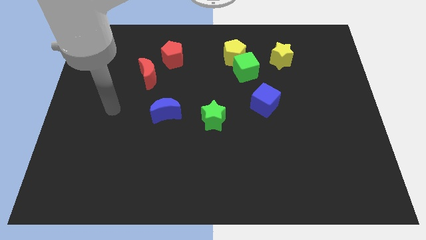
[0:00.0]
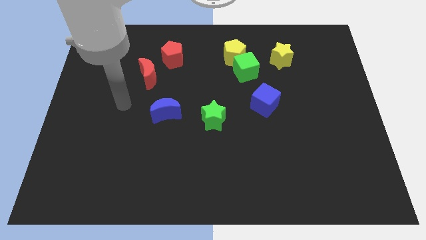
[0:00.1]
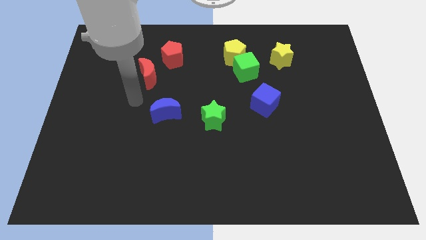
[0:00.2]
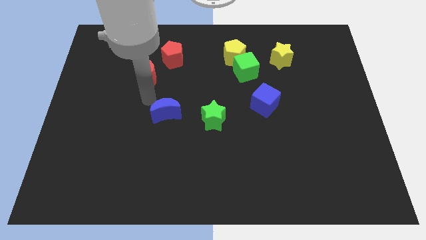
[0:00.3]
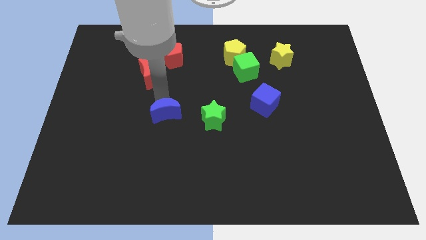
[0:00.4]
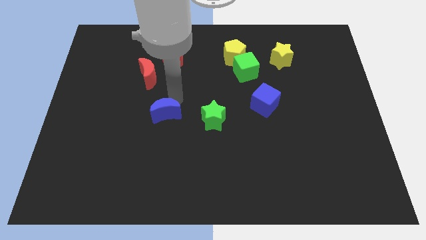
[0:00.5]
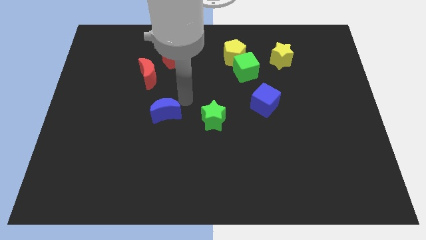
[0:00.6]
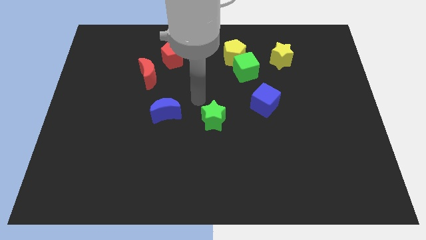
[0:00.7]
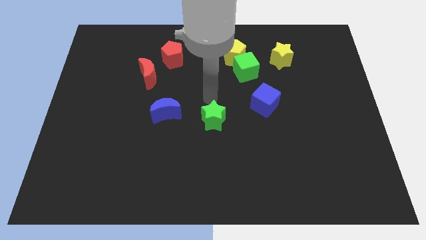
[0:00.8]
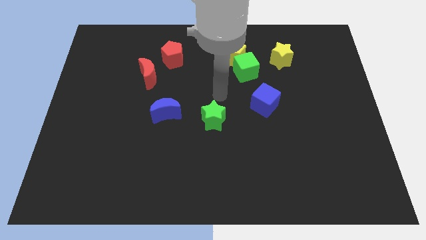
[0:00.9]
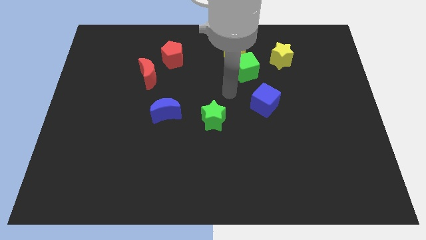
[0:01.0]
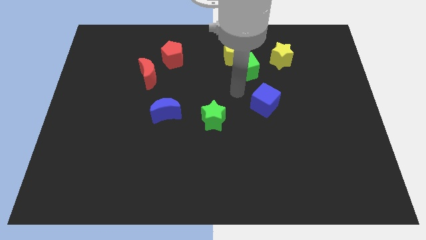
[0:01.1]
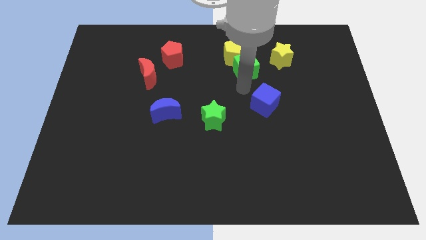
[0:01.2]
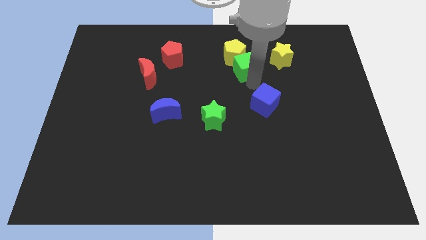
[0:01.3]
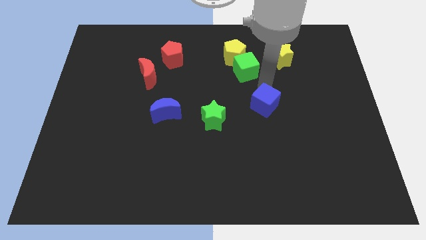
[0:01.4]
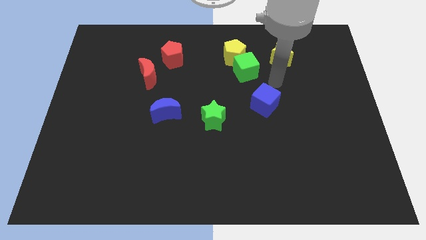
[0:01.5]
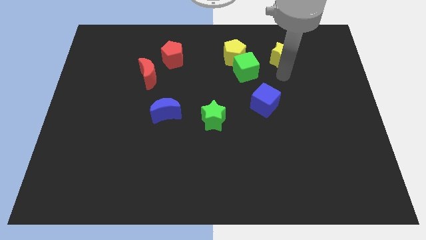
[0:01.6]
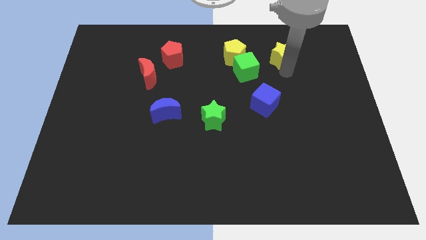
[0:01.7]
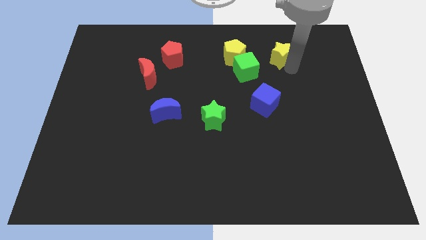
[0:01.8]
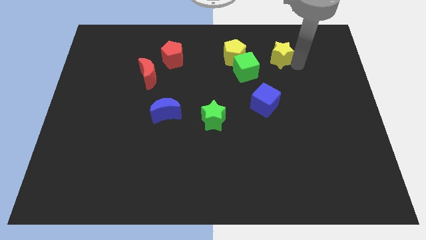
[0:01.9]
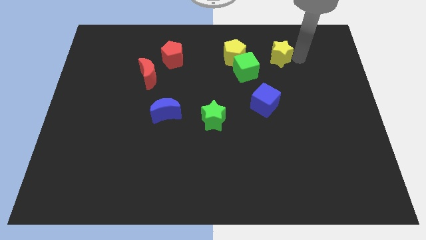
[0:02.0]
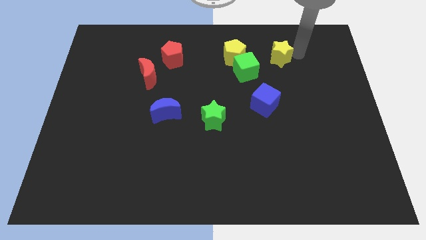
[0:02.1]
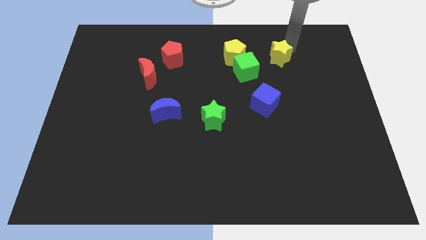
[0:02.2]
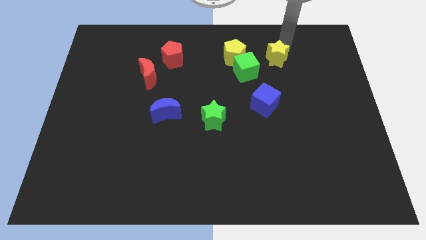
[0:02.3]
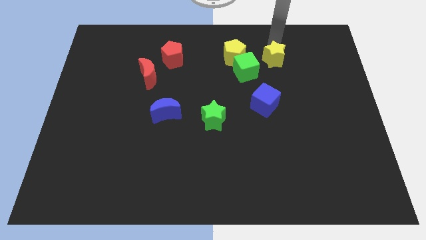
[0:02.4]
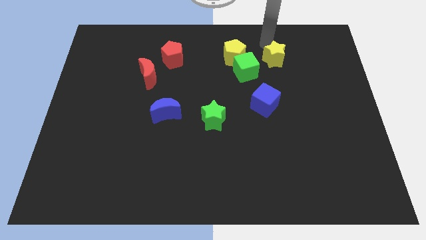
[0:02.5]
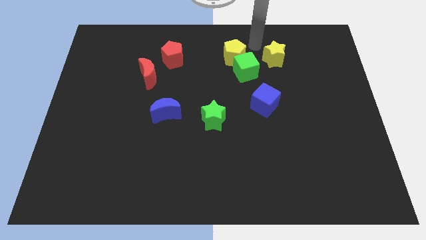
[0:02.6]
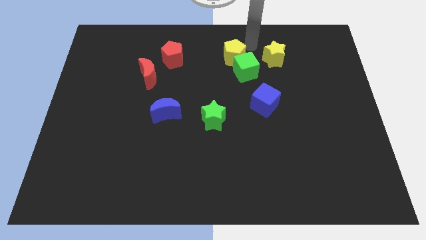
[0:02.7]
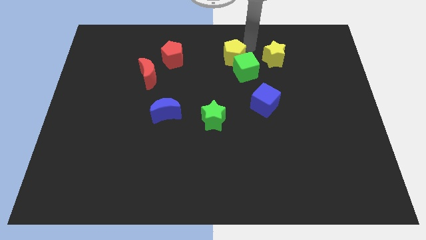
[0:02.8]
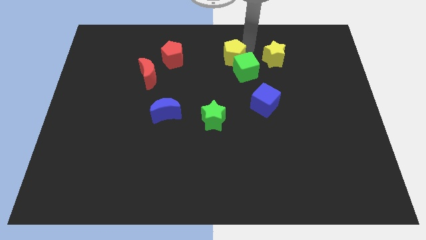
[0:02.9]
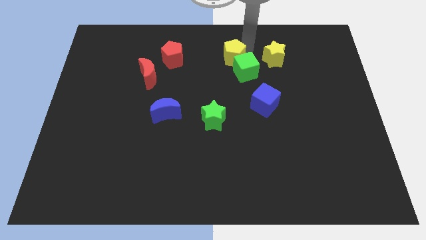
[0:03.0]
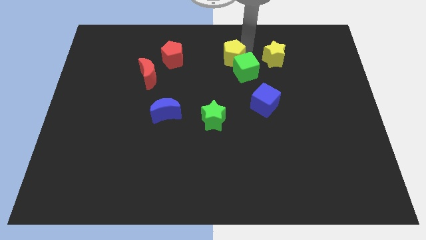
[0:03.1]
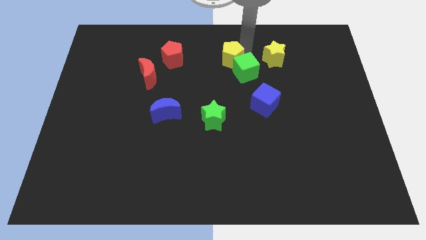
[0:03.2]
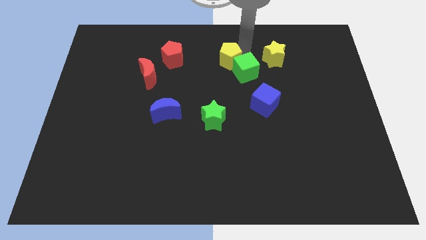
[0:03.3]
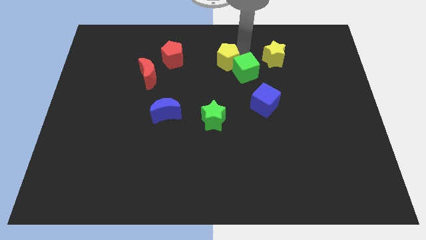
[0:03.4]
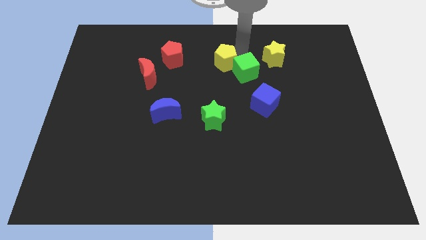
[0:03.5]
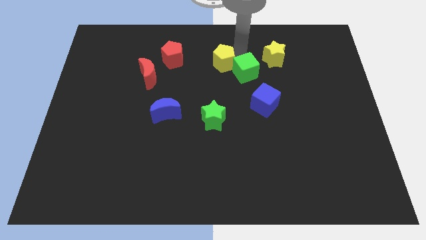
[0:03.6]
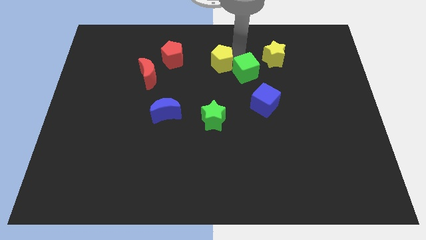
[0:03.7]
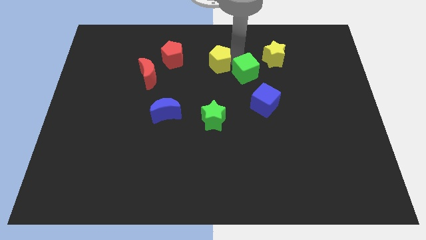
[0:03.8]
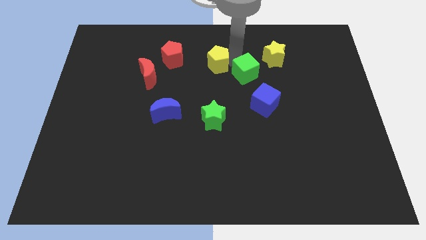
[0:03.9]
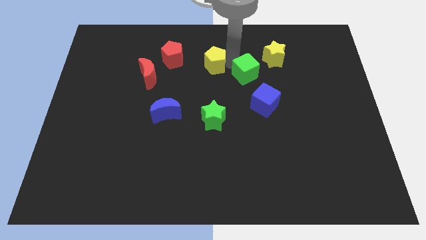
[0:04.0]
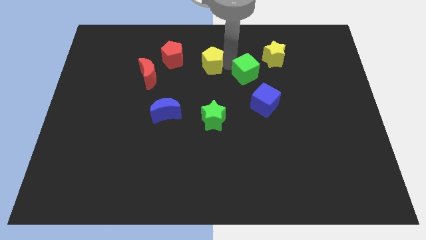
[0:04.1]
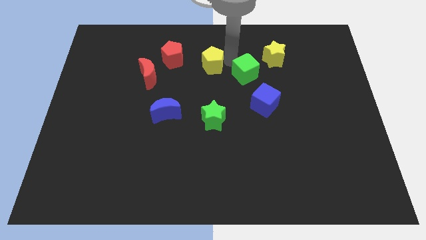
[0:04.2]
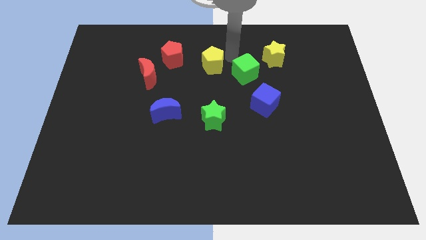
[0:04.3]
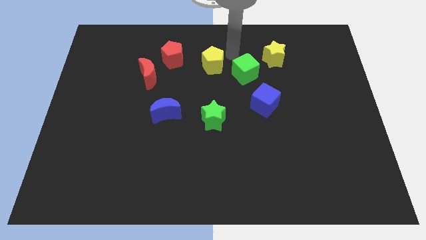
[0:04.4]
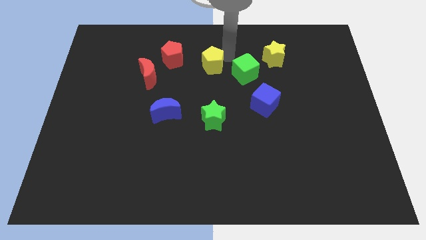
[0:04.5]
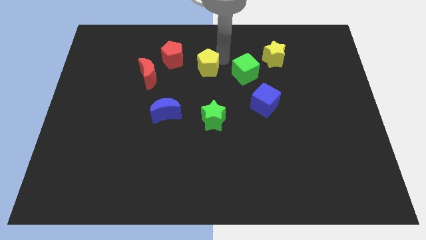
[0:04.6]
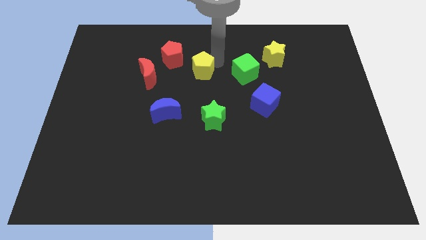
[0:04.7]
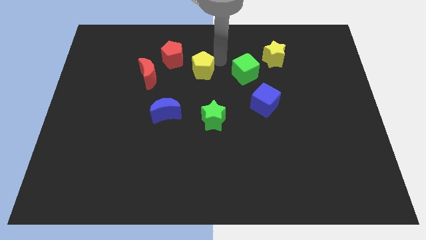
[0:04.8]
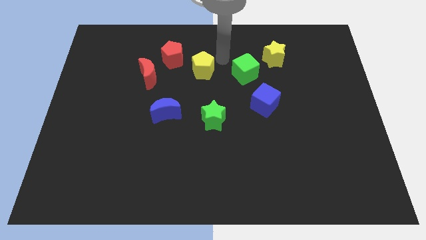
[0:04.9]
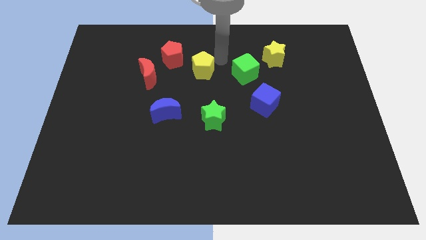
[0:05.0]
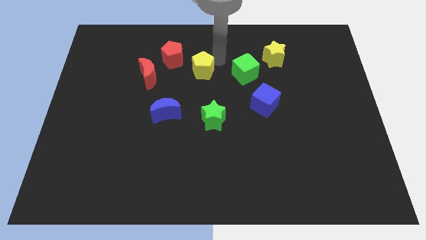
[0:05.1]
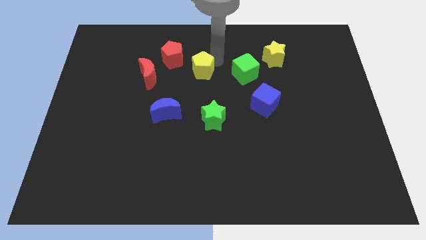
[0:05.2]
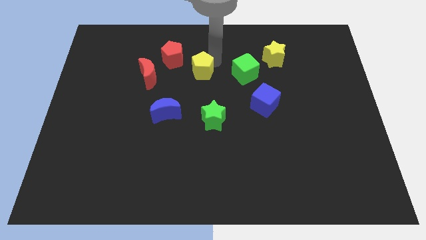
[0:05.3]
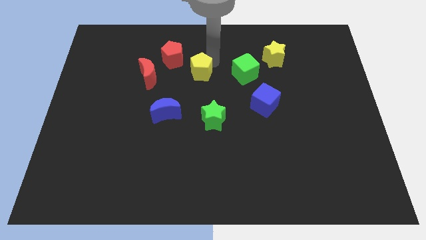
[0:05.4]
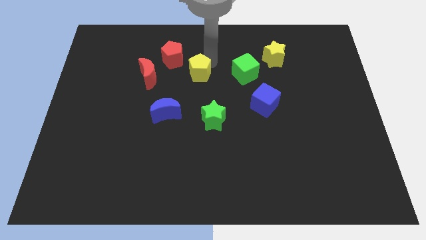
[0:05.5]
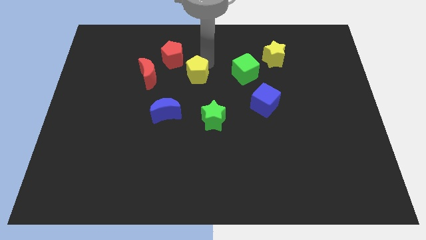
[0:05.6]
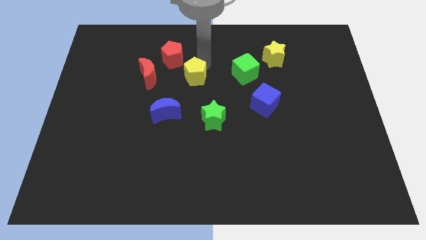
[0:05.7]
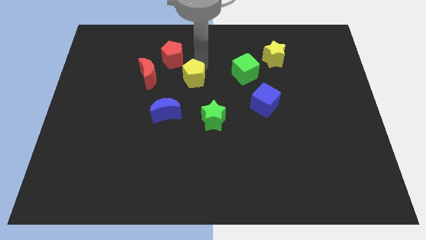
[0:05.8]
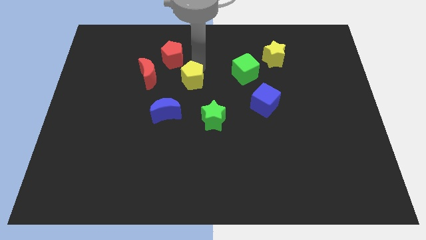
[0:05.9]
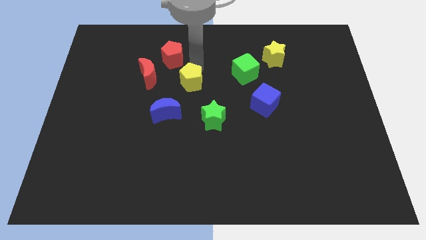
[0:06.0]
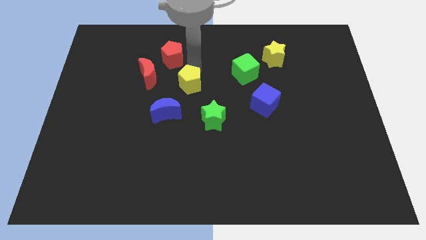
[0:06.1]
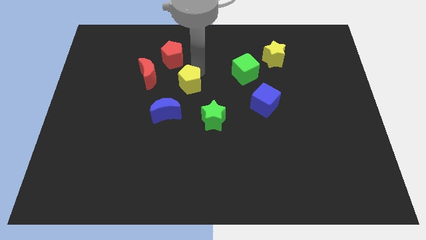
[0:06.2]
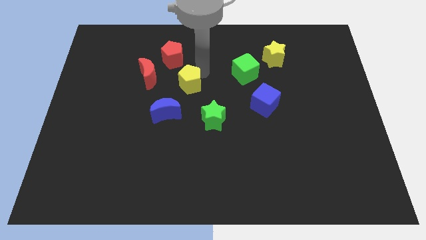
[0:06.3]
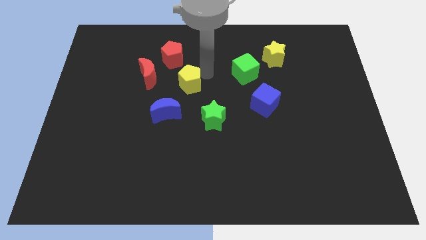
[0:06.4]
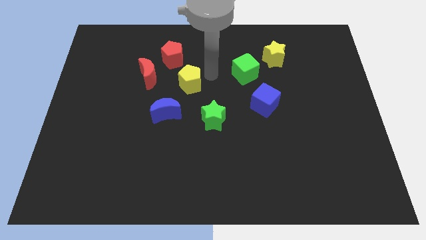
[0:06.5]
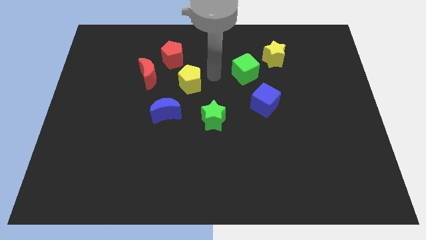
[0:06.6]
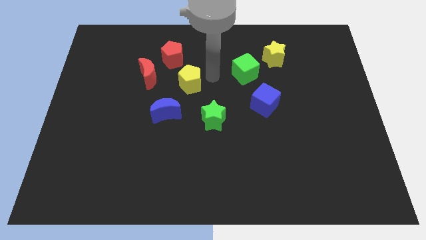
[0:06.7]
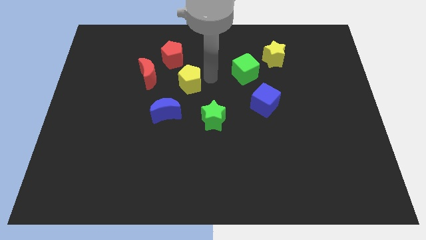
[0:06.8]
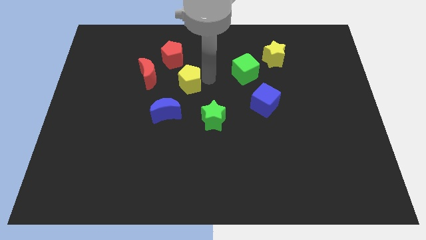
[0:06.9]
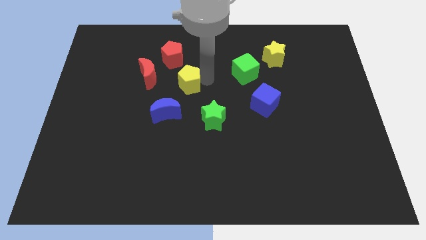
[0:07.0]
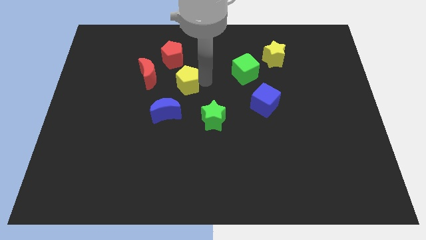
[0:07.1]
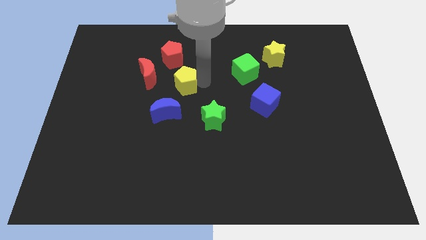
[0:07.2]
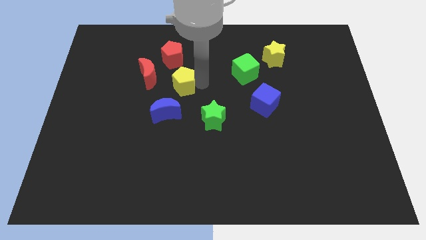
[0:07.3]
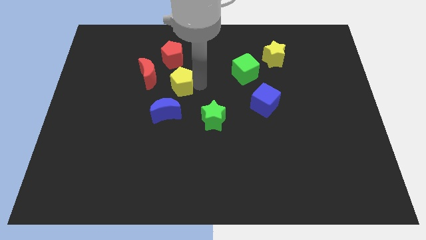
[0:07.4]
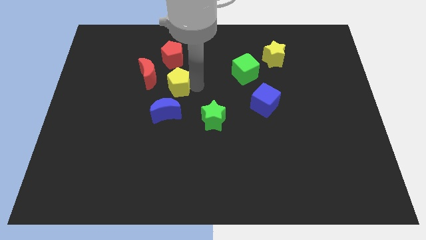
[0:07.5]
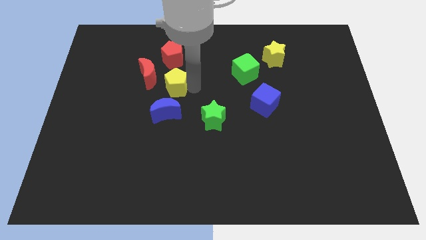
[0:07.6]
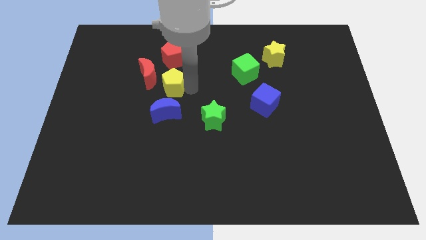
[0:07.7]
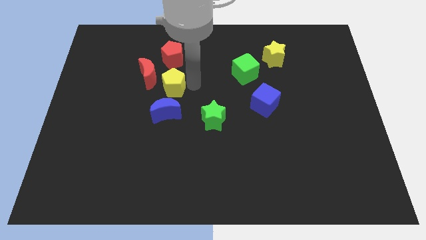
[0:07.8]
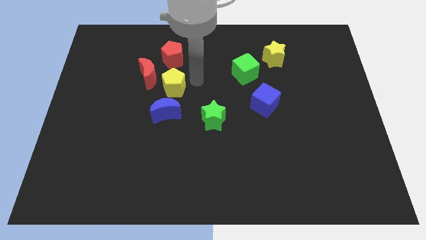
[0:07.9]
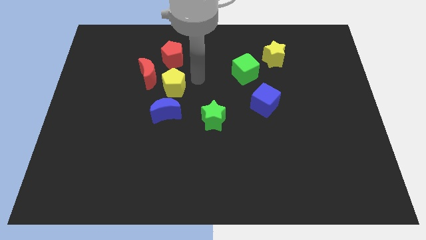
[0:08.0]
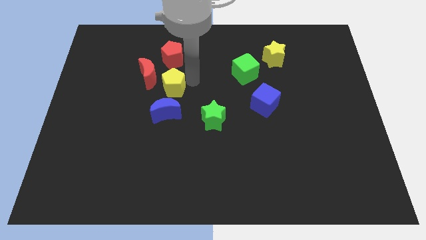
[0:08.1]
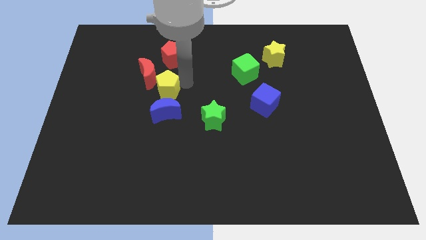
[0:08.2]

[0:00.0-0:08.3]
push the yellow pentagon to the bottom side of the red moon
